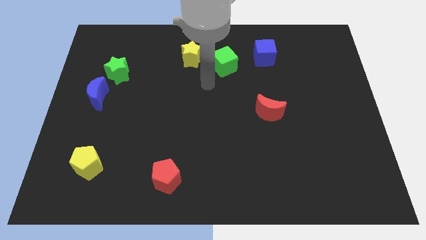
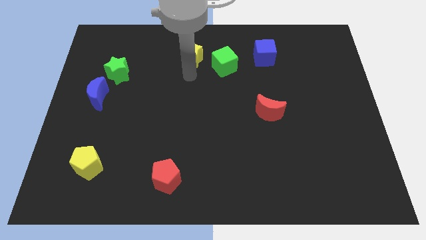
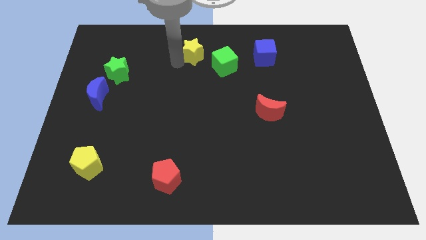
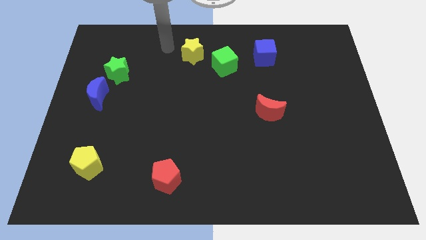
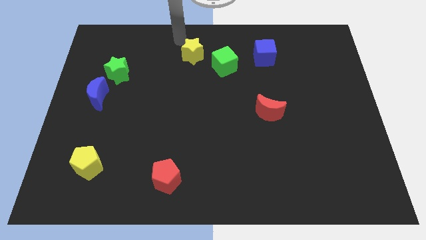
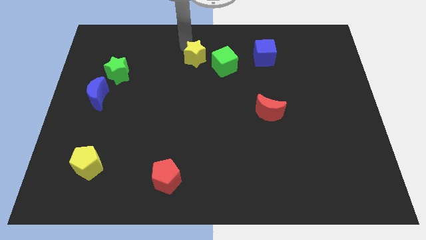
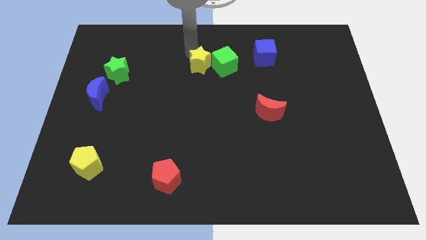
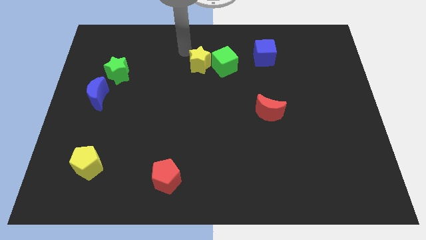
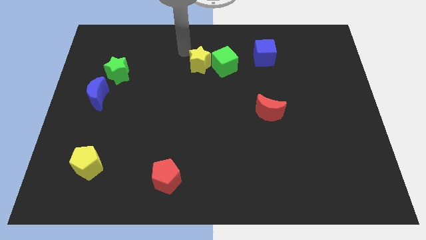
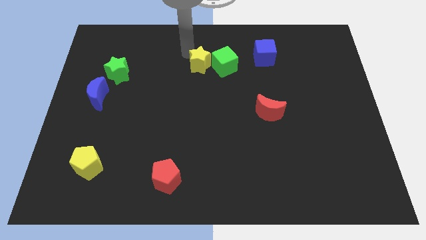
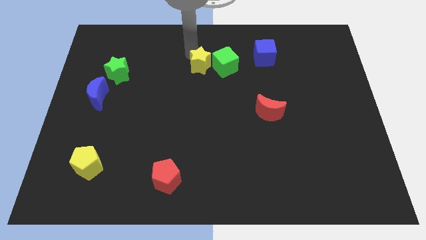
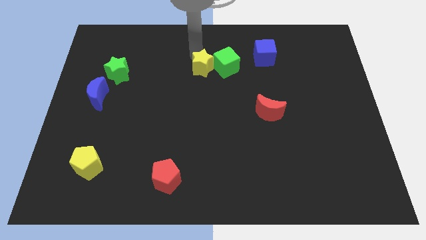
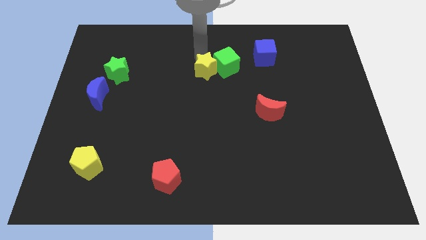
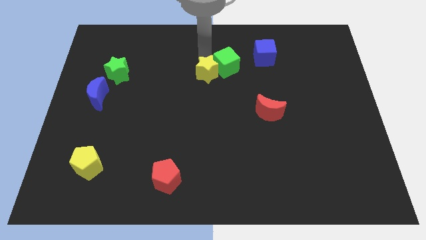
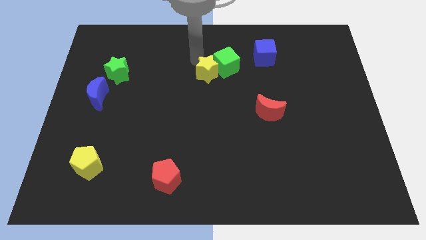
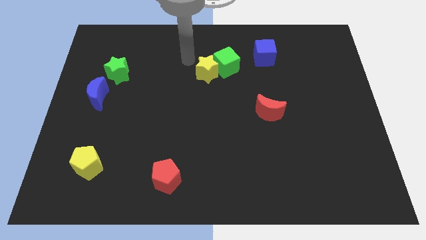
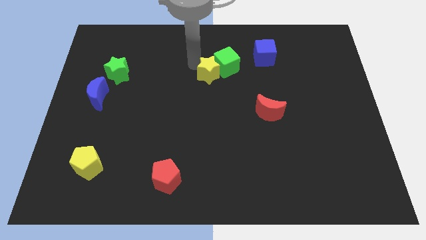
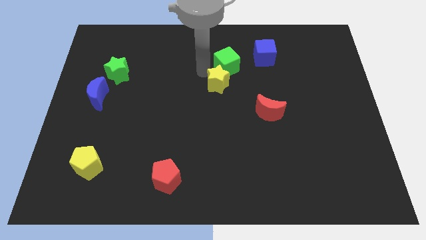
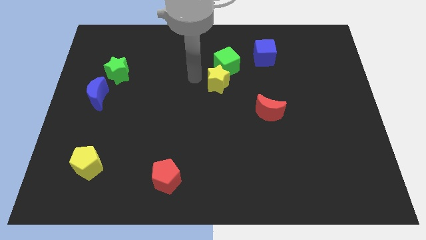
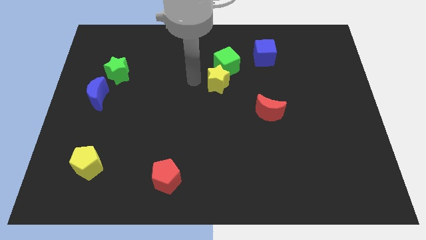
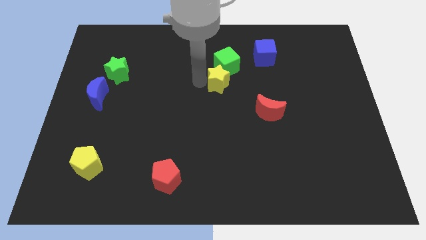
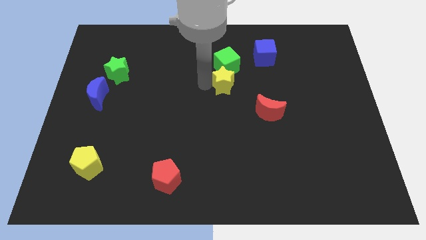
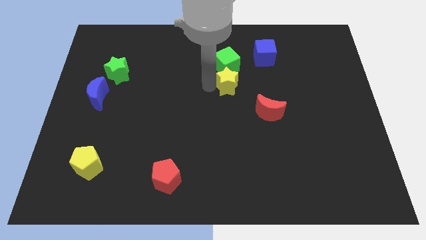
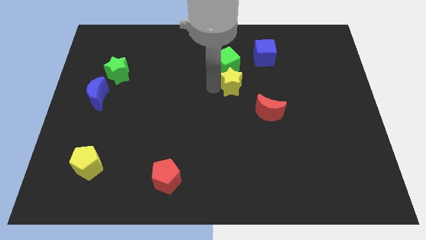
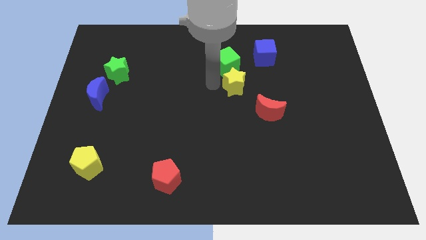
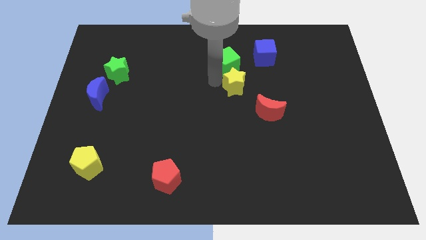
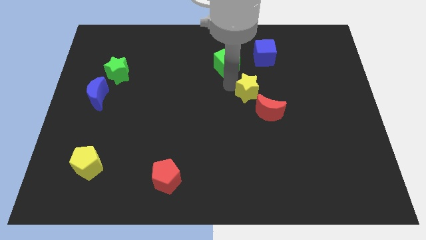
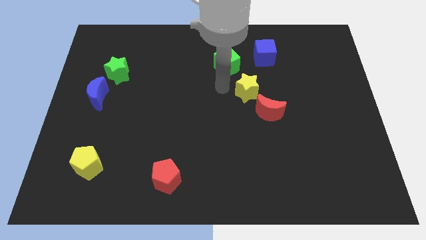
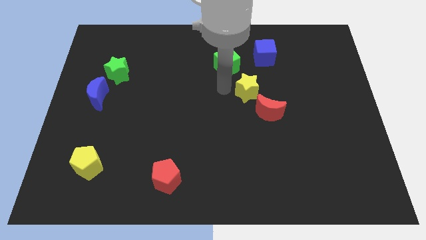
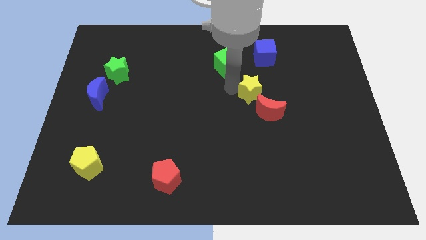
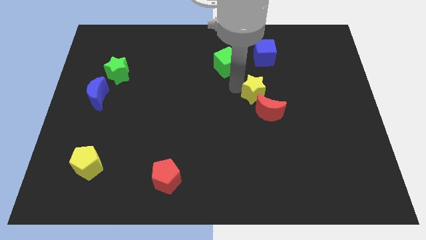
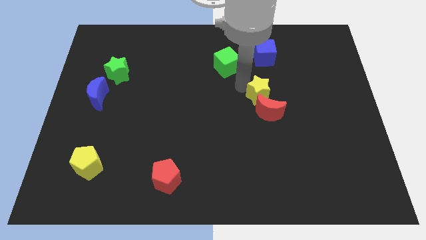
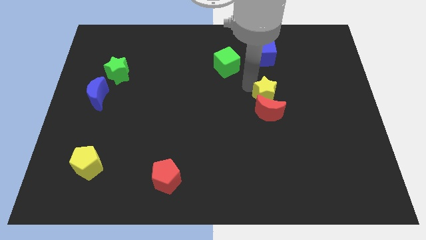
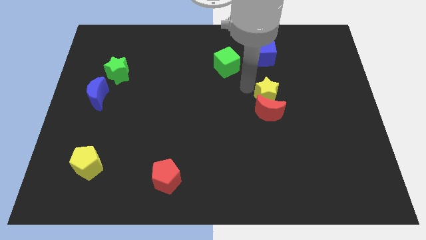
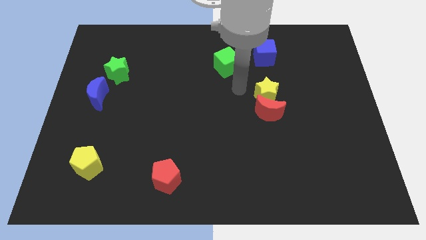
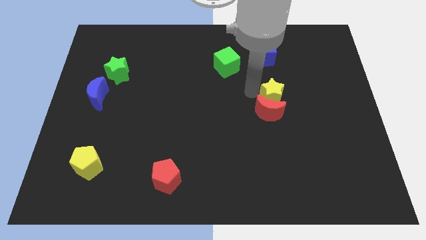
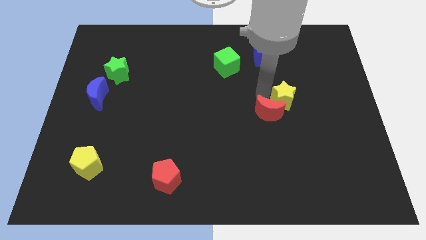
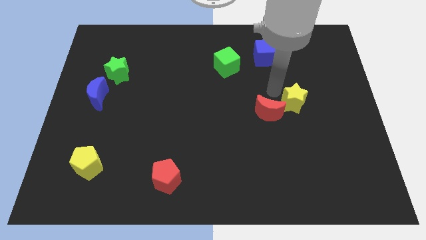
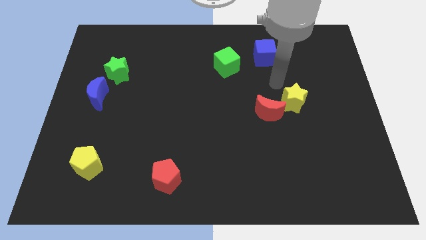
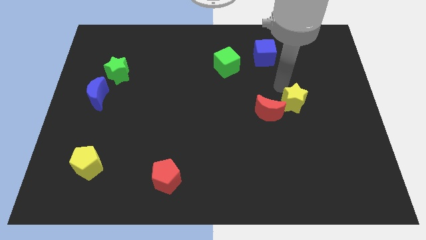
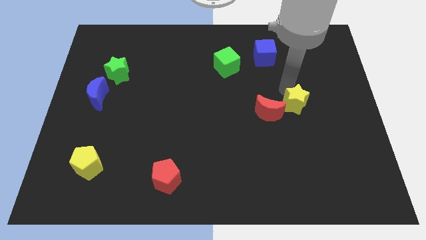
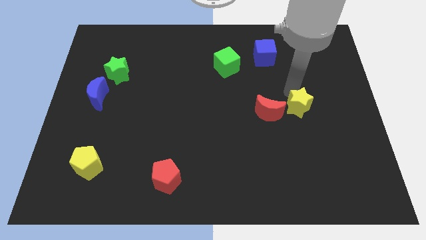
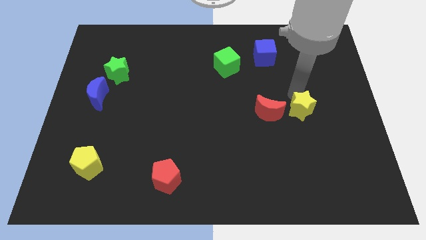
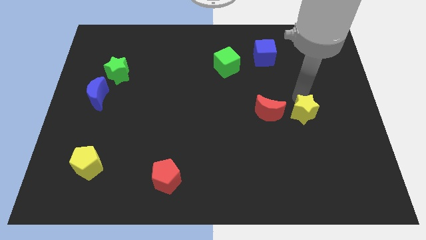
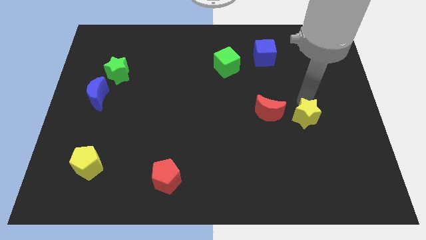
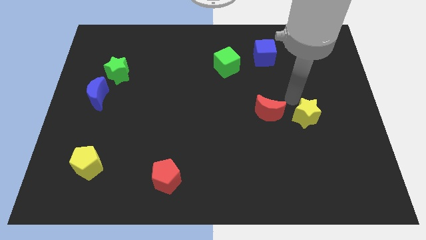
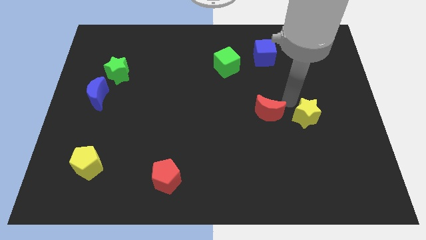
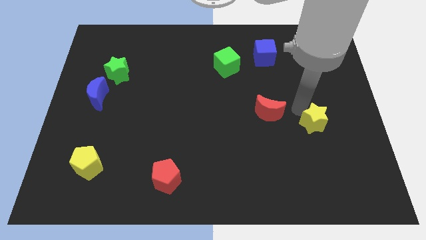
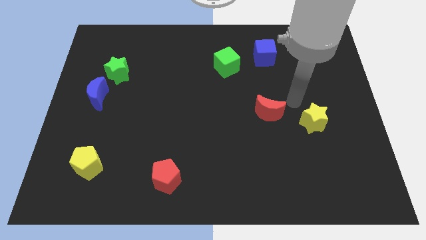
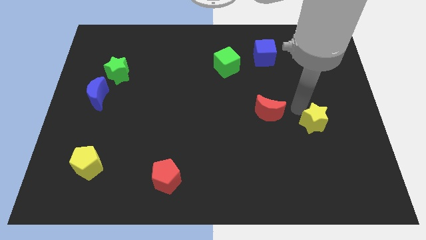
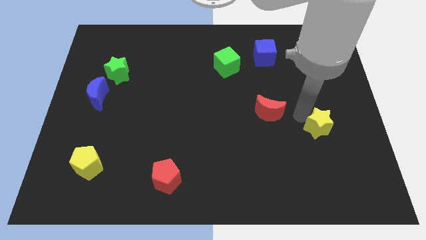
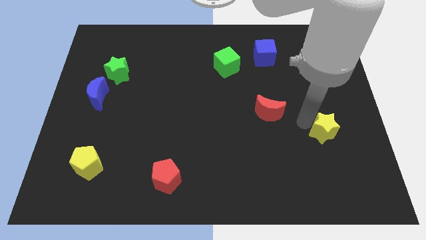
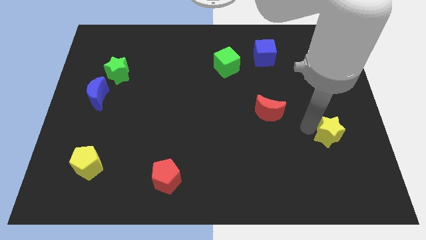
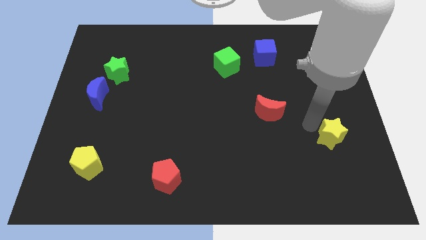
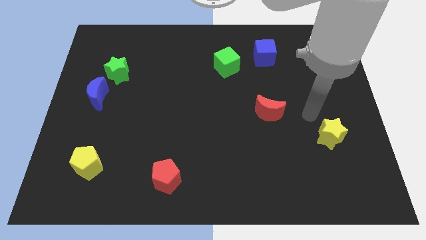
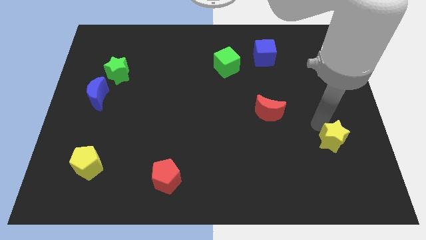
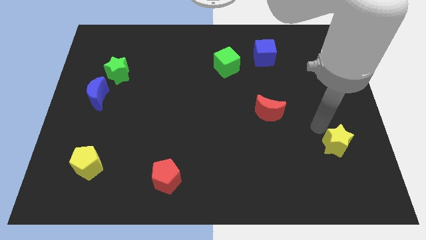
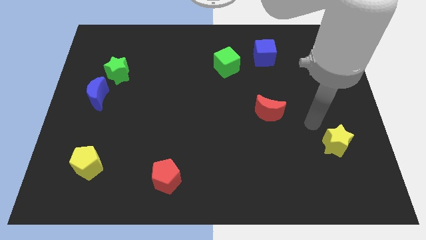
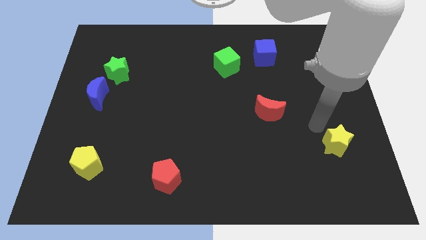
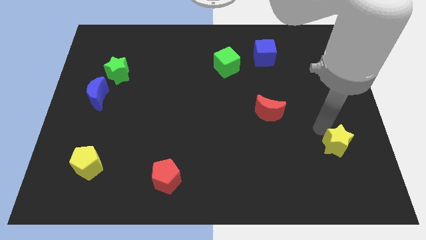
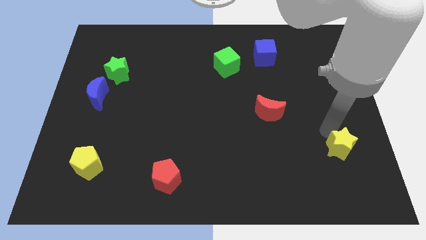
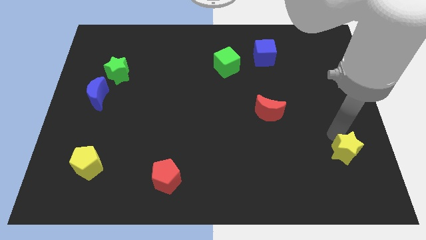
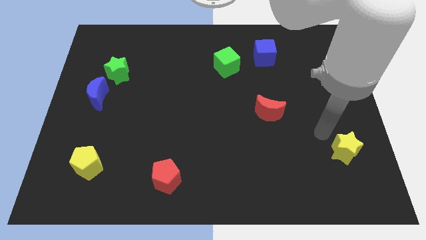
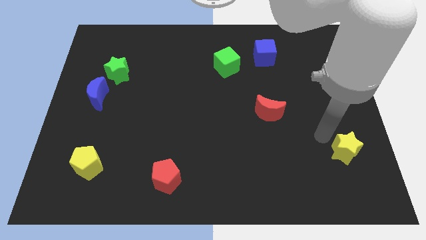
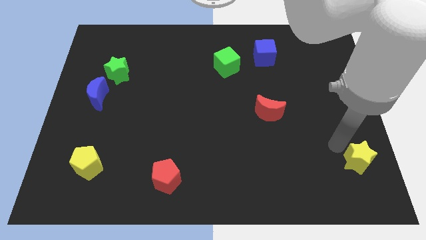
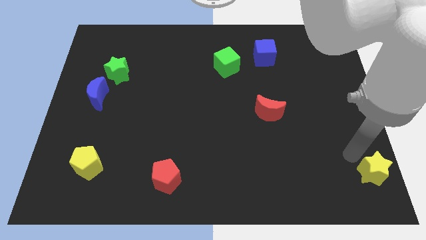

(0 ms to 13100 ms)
slide the yellow star to the bottom right of the board
